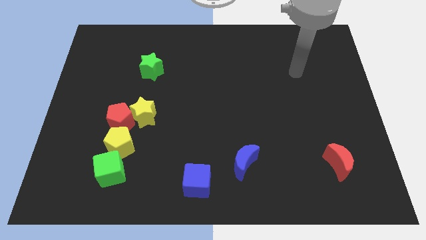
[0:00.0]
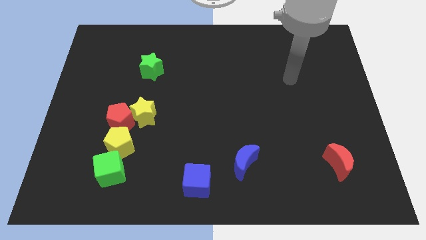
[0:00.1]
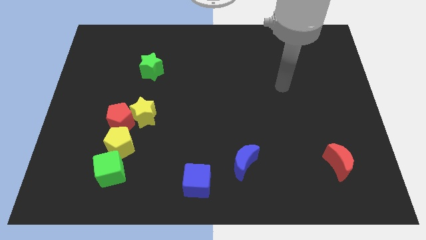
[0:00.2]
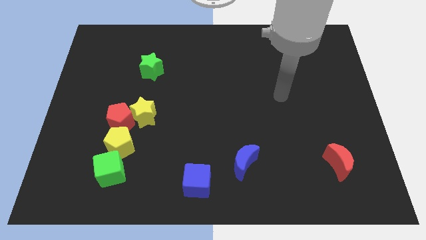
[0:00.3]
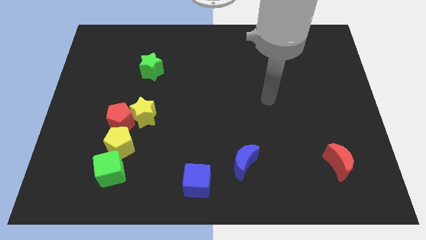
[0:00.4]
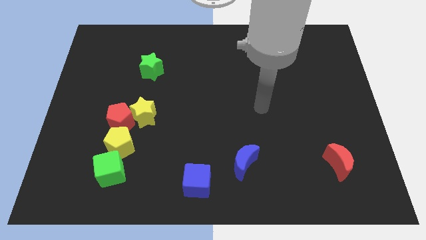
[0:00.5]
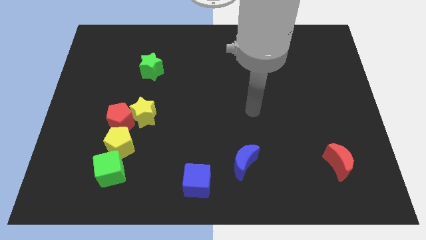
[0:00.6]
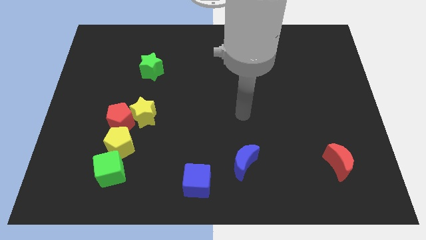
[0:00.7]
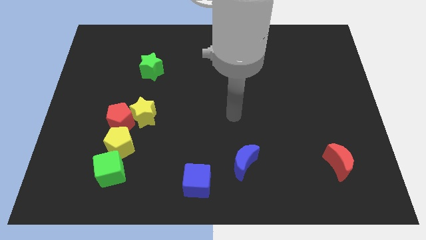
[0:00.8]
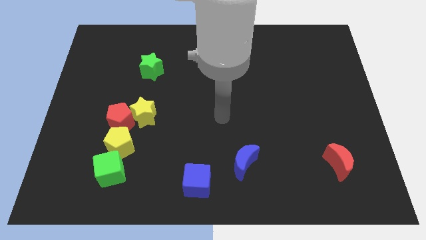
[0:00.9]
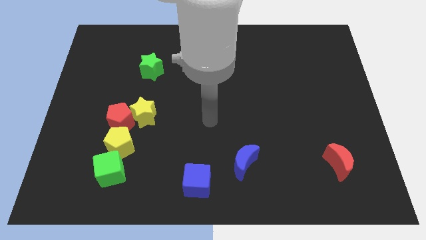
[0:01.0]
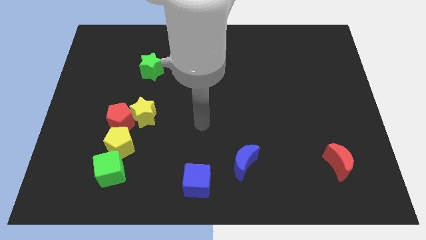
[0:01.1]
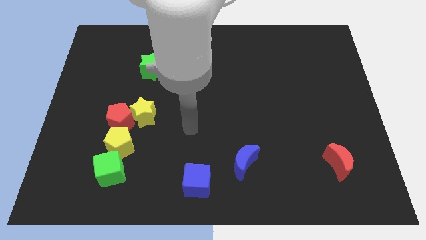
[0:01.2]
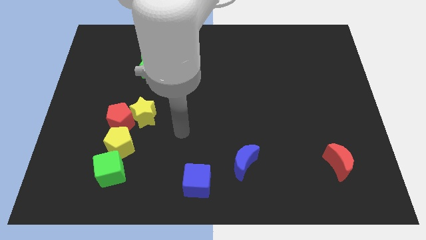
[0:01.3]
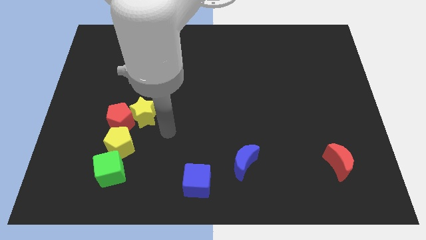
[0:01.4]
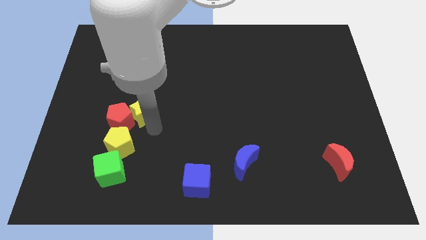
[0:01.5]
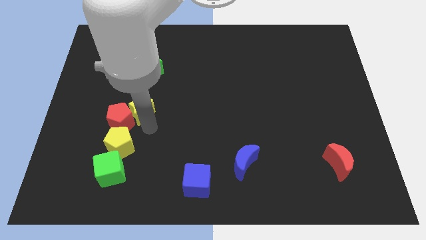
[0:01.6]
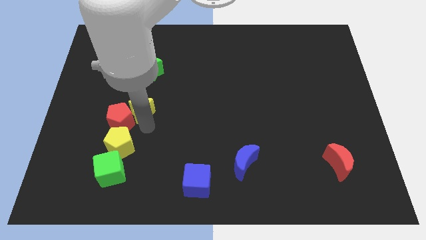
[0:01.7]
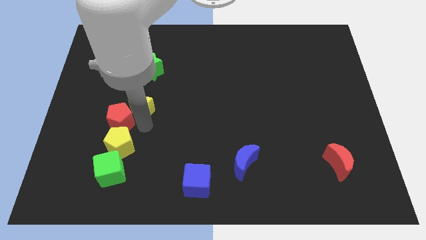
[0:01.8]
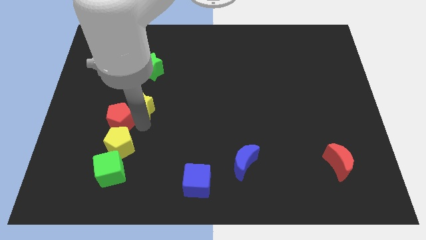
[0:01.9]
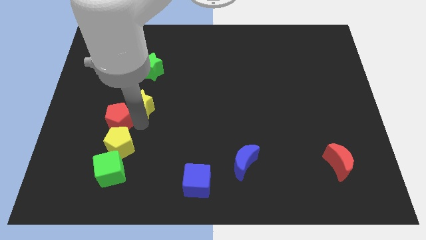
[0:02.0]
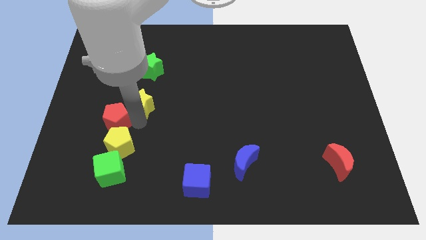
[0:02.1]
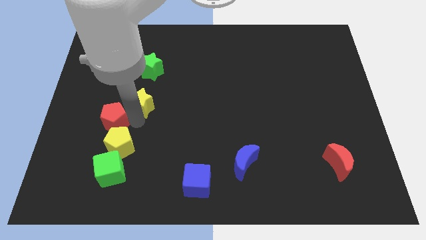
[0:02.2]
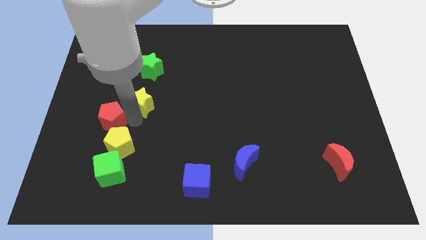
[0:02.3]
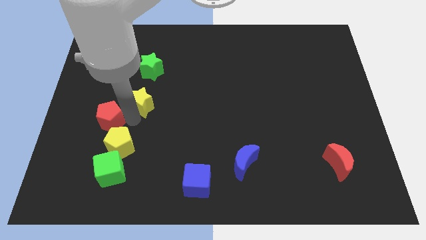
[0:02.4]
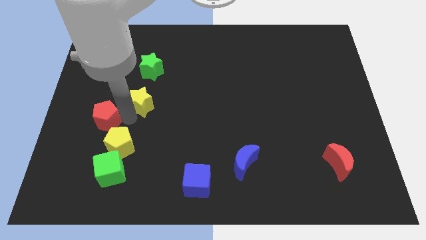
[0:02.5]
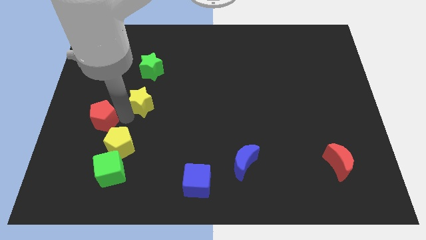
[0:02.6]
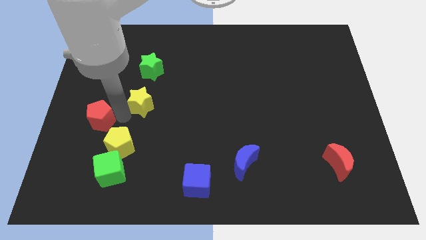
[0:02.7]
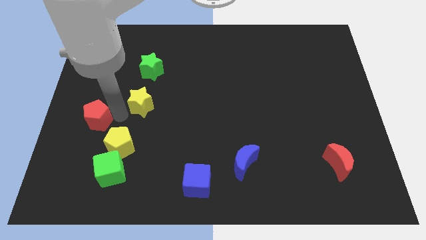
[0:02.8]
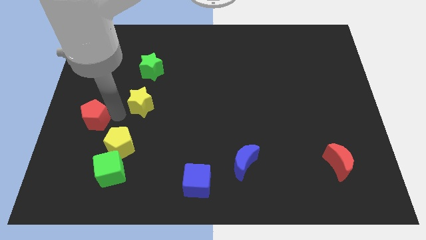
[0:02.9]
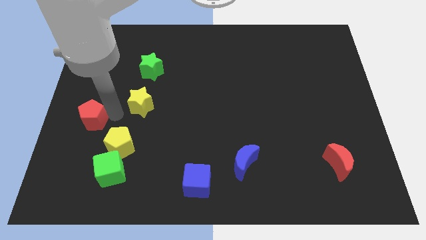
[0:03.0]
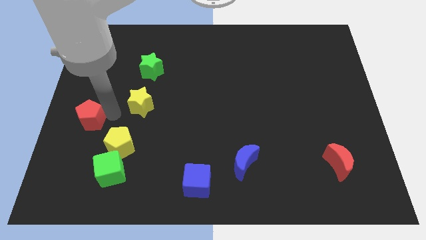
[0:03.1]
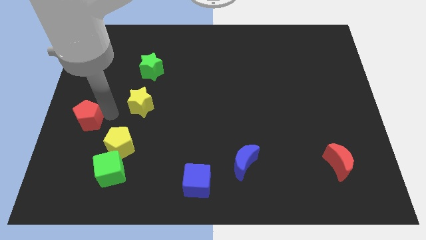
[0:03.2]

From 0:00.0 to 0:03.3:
pull the red pentagon apart from the yellow star and yellow pentagon

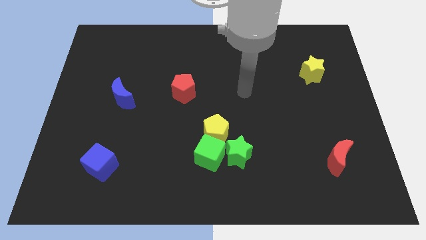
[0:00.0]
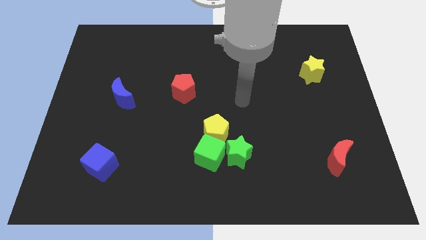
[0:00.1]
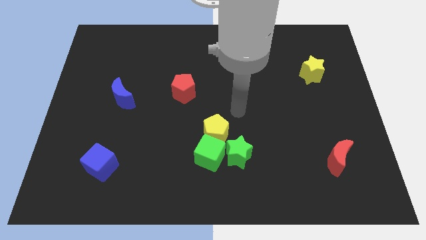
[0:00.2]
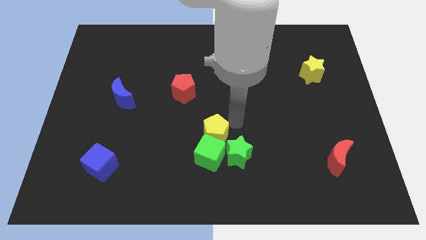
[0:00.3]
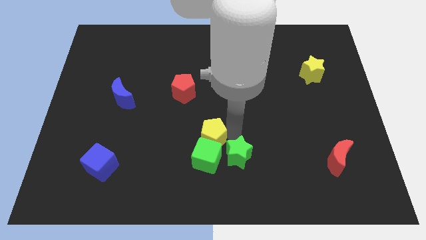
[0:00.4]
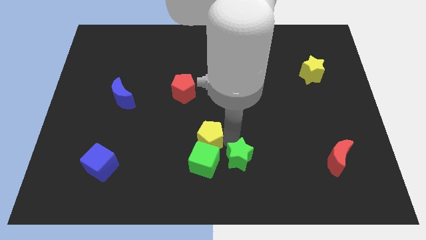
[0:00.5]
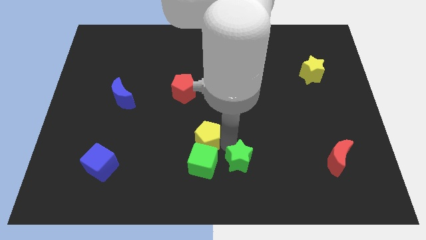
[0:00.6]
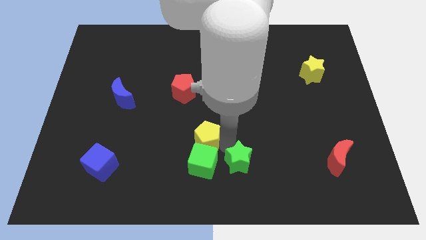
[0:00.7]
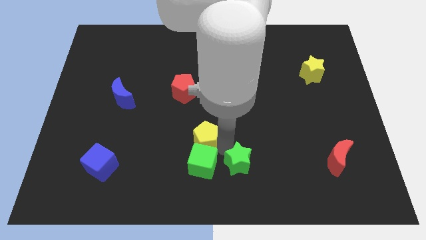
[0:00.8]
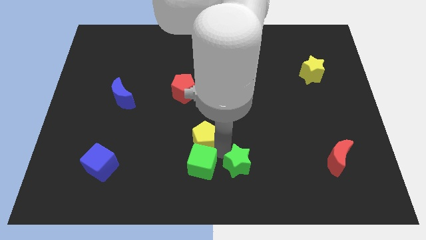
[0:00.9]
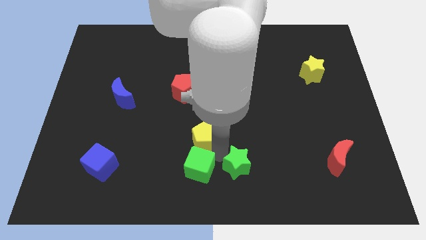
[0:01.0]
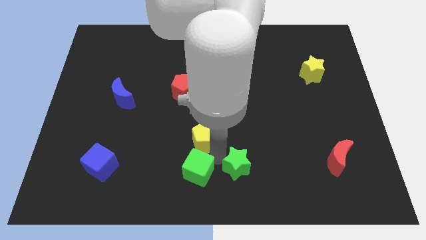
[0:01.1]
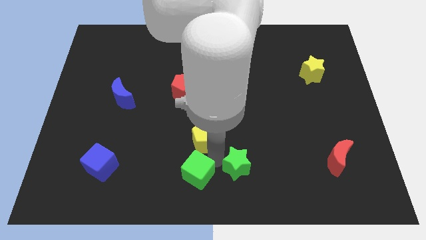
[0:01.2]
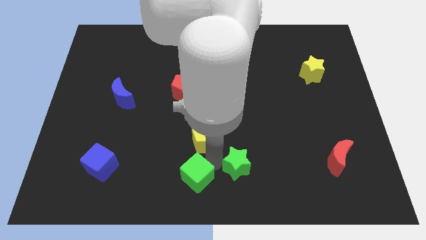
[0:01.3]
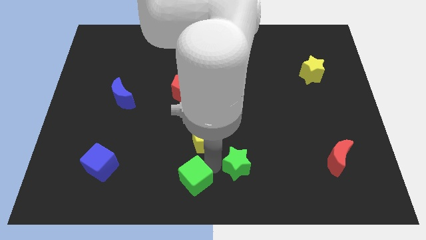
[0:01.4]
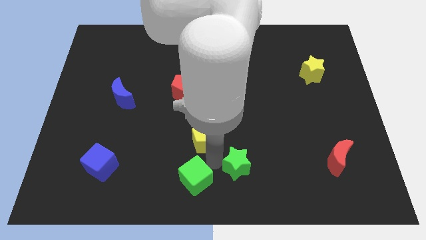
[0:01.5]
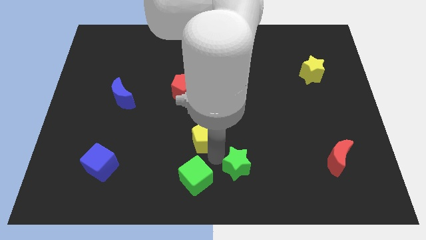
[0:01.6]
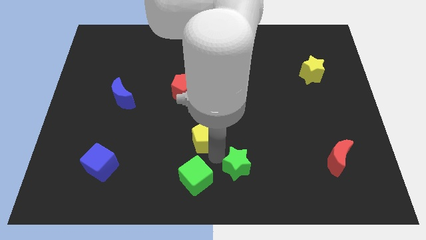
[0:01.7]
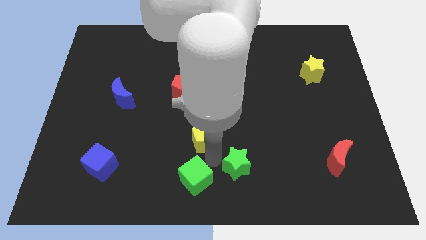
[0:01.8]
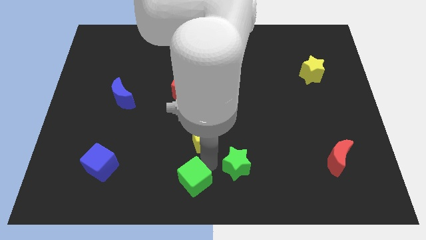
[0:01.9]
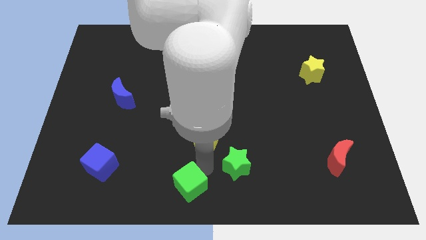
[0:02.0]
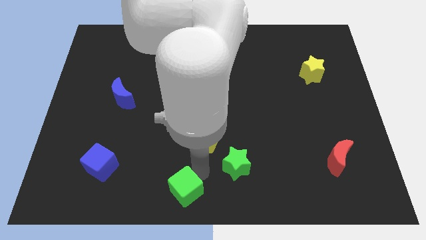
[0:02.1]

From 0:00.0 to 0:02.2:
pull the green cube apart from the yellow pentagon and green star

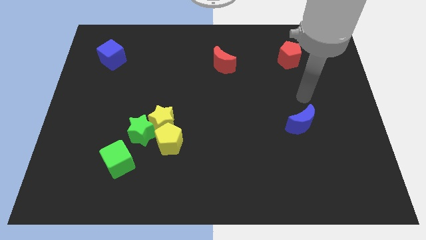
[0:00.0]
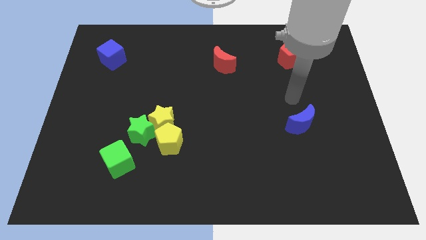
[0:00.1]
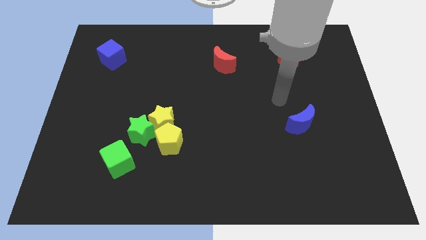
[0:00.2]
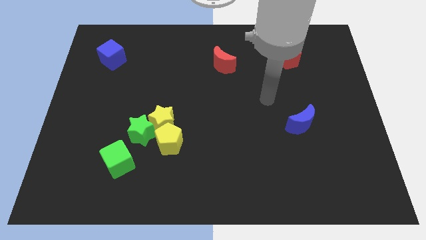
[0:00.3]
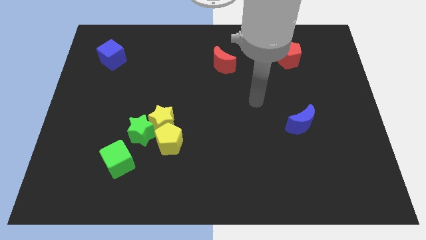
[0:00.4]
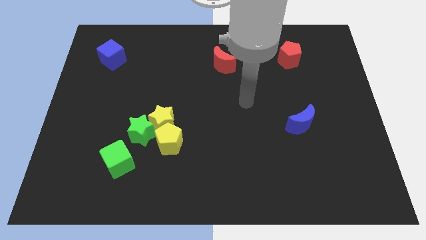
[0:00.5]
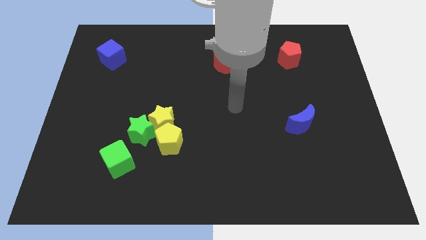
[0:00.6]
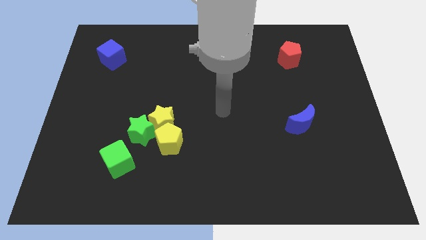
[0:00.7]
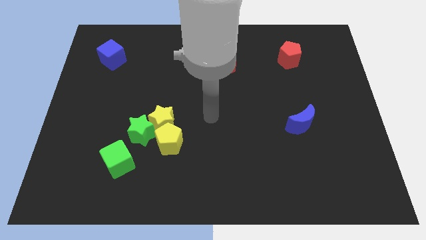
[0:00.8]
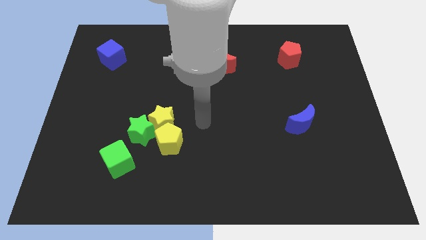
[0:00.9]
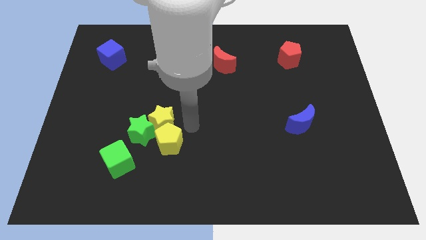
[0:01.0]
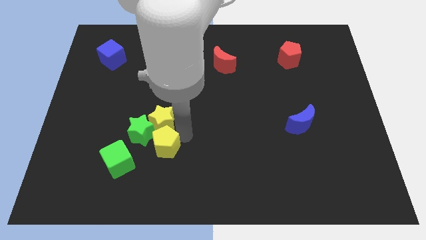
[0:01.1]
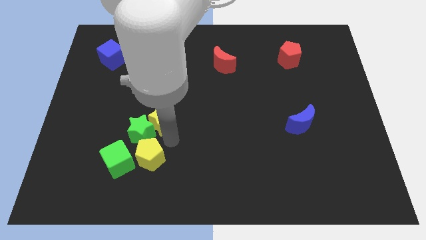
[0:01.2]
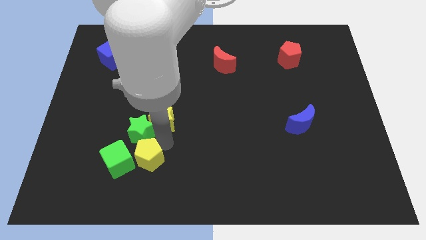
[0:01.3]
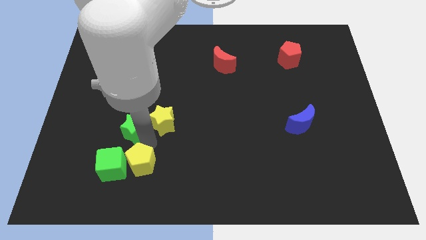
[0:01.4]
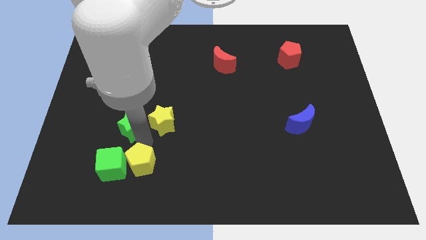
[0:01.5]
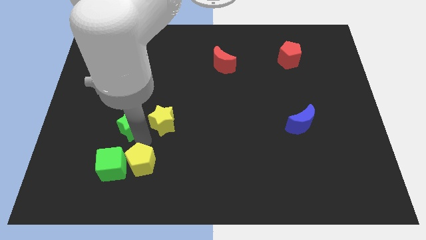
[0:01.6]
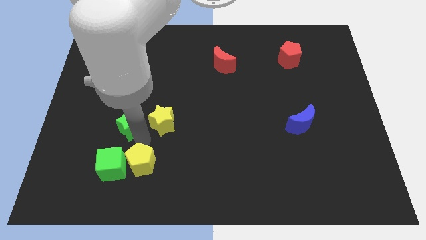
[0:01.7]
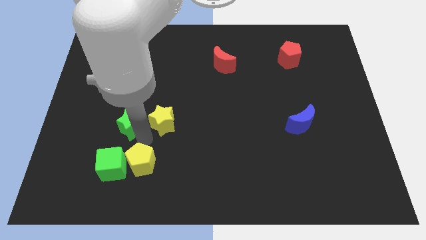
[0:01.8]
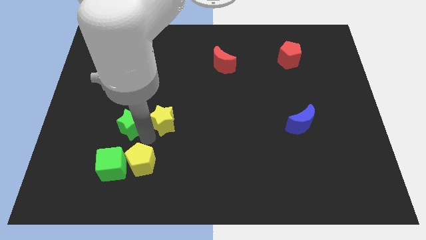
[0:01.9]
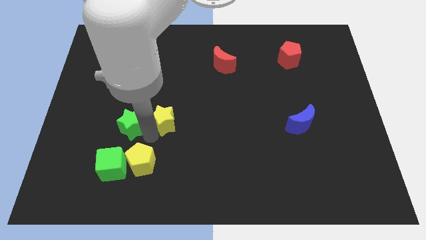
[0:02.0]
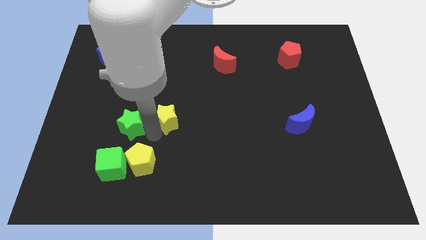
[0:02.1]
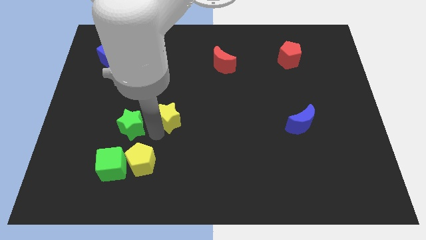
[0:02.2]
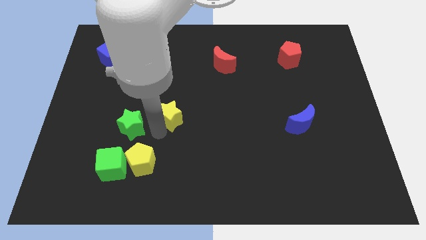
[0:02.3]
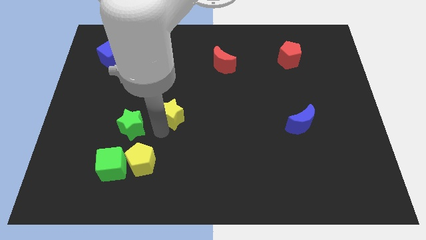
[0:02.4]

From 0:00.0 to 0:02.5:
move the yellow star away from the green star and yellow pentagon

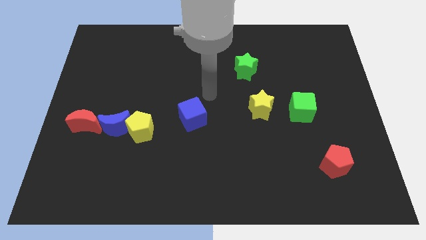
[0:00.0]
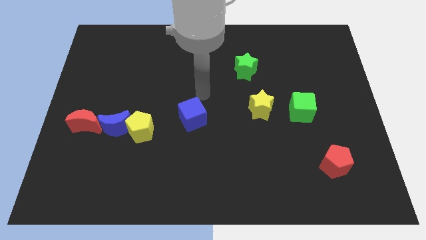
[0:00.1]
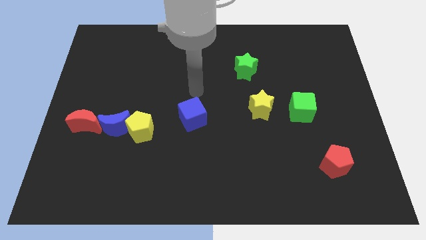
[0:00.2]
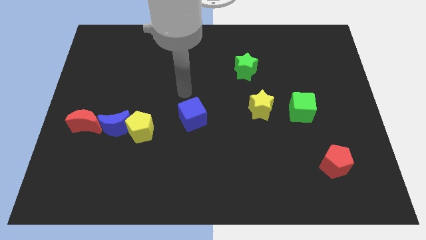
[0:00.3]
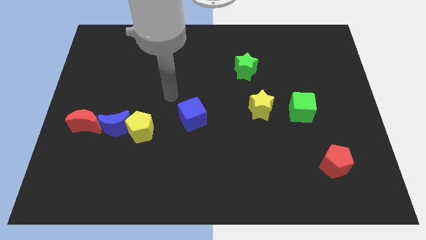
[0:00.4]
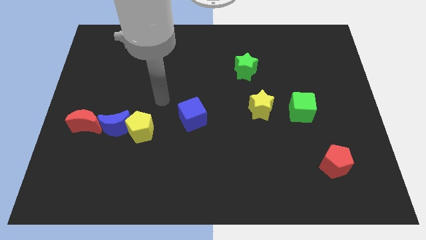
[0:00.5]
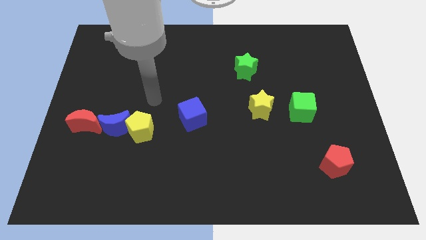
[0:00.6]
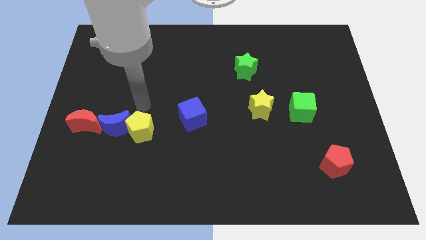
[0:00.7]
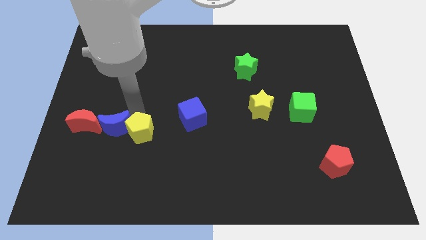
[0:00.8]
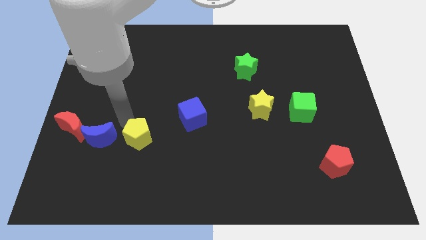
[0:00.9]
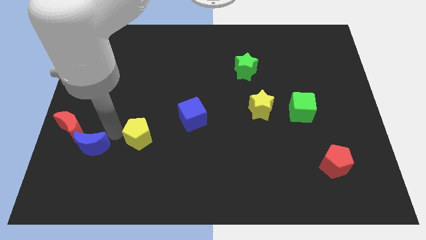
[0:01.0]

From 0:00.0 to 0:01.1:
pull the yellow pentagon apart from the blue moon

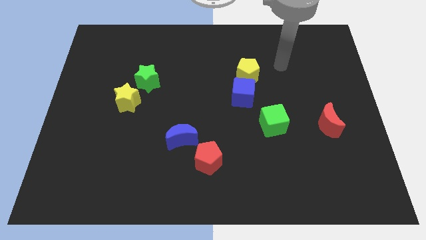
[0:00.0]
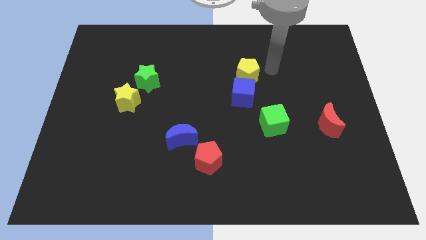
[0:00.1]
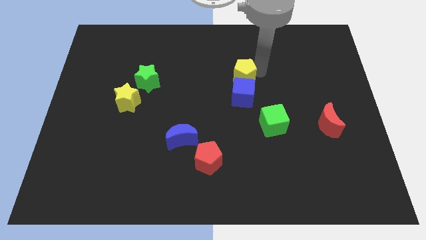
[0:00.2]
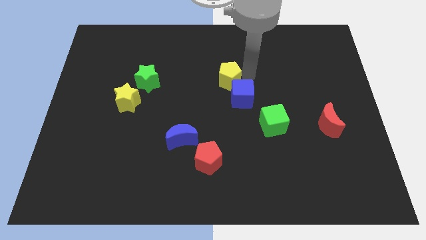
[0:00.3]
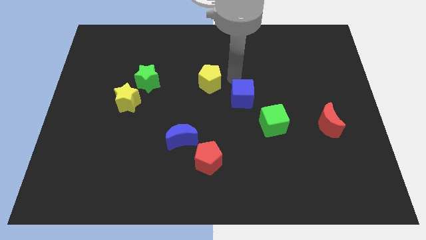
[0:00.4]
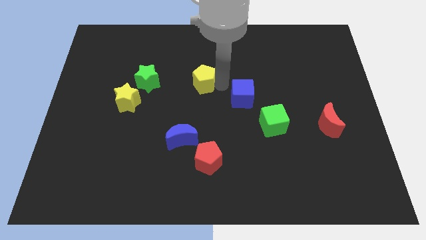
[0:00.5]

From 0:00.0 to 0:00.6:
pull the blue cube apart from the yellow pentagon
